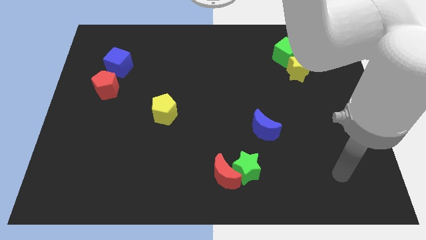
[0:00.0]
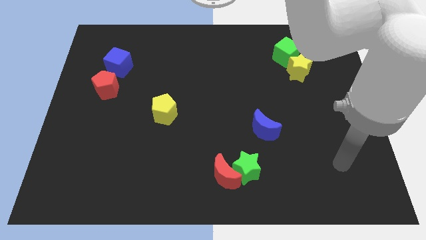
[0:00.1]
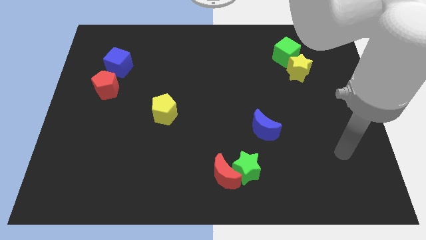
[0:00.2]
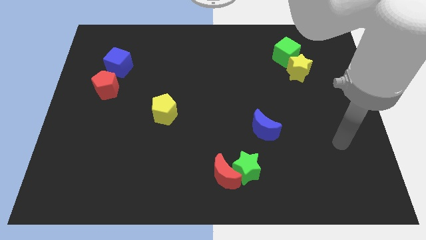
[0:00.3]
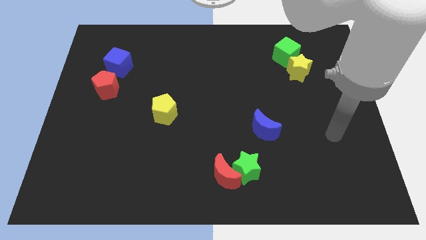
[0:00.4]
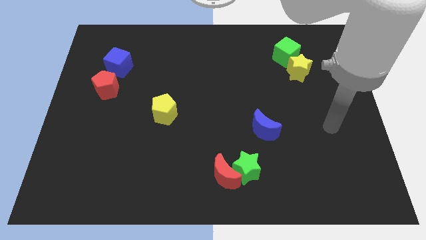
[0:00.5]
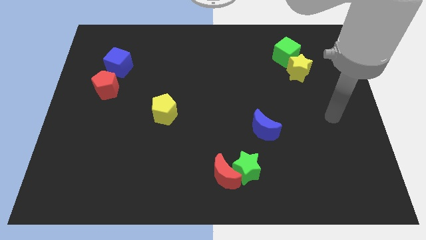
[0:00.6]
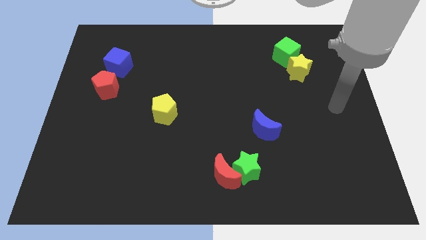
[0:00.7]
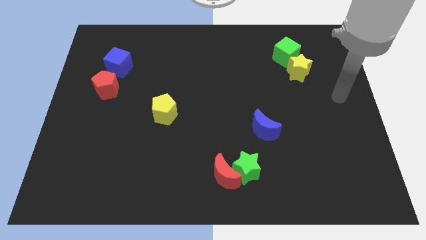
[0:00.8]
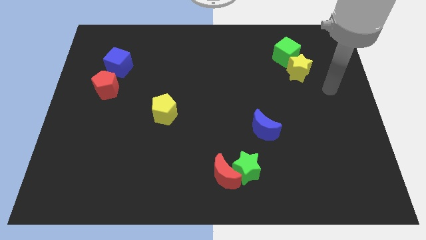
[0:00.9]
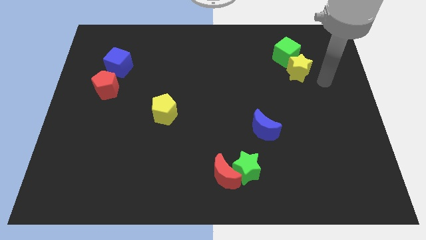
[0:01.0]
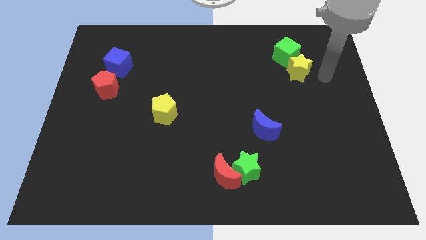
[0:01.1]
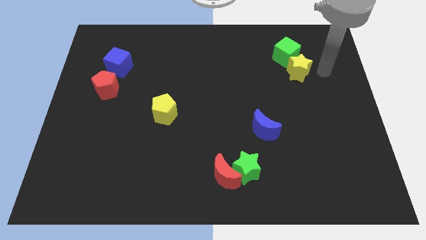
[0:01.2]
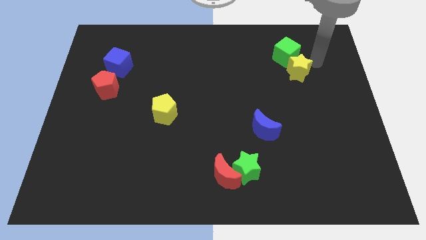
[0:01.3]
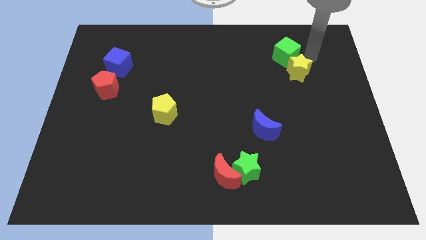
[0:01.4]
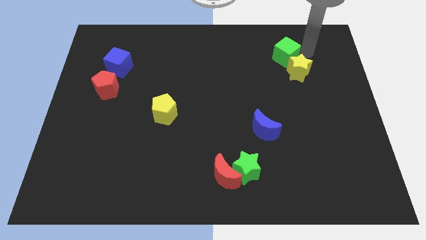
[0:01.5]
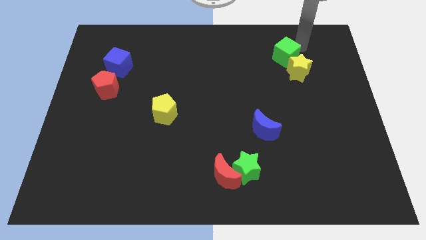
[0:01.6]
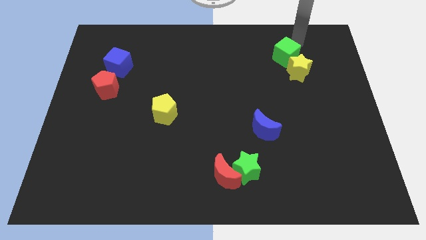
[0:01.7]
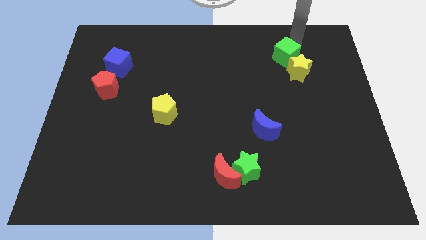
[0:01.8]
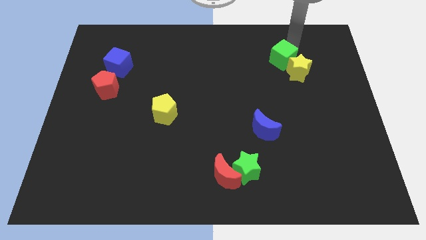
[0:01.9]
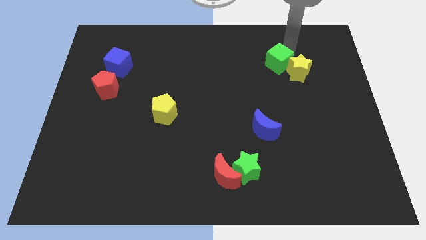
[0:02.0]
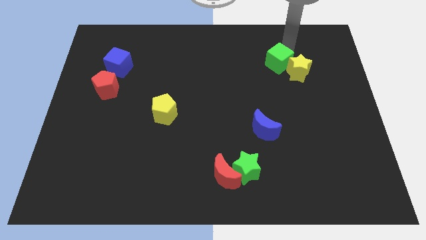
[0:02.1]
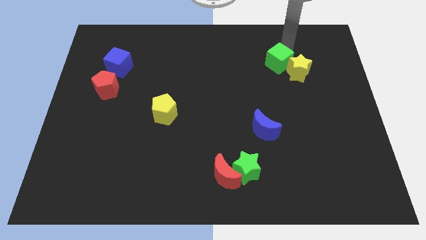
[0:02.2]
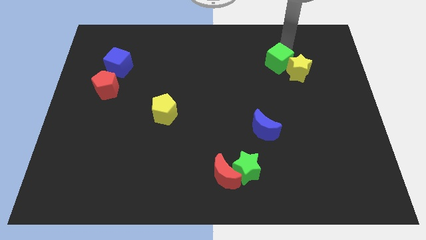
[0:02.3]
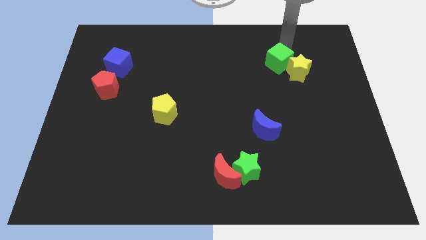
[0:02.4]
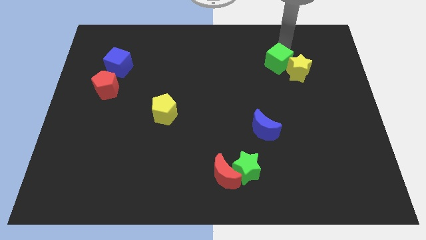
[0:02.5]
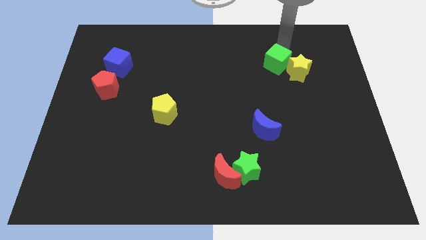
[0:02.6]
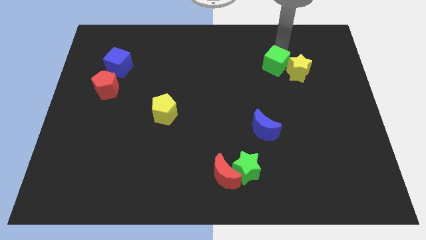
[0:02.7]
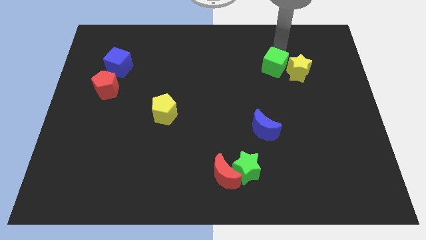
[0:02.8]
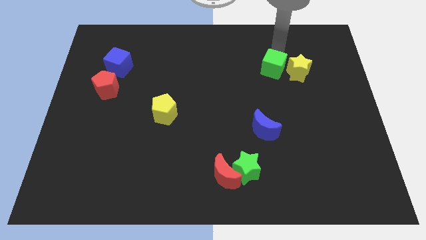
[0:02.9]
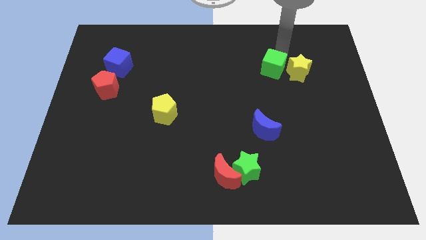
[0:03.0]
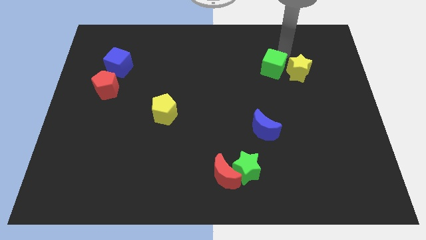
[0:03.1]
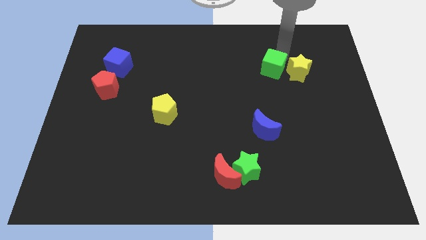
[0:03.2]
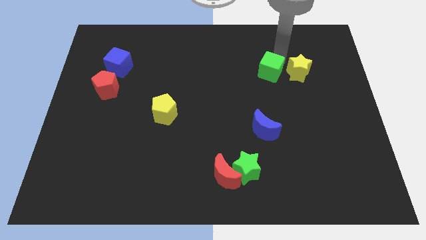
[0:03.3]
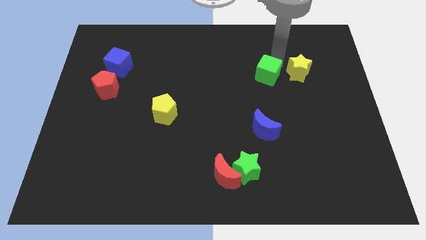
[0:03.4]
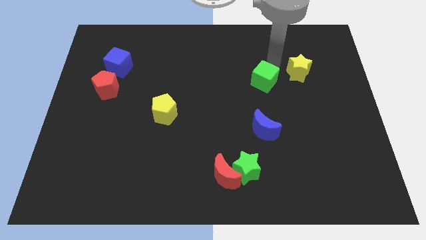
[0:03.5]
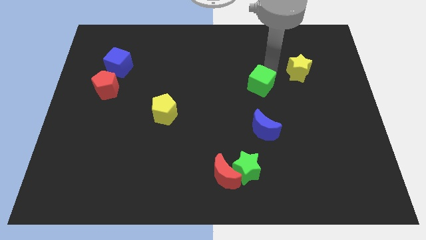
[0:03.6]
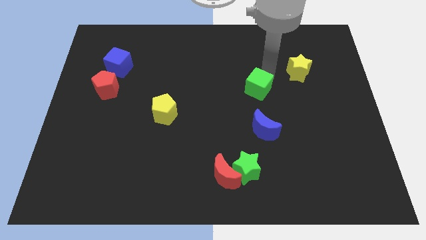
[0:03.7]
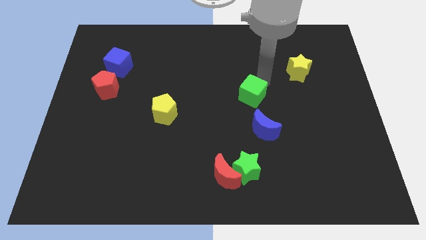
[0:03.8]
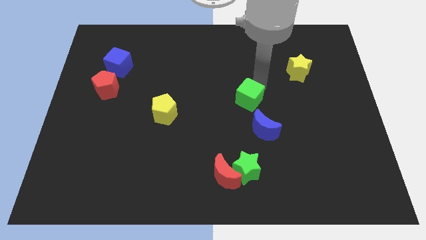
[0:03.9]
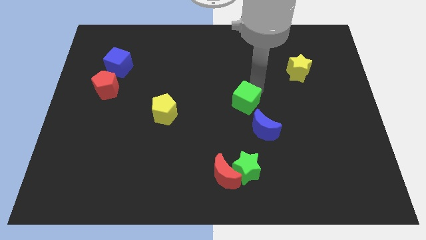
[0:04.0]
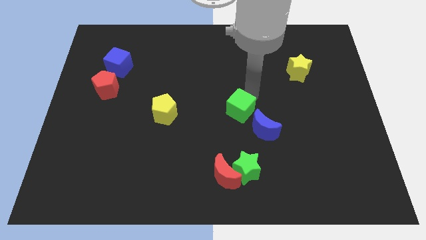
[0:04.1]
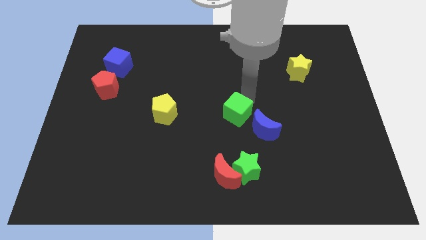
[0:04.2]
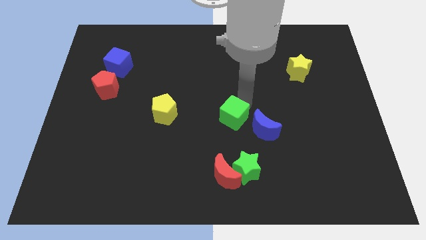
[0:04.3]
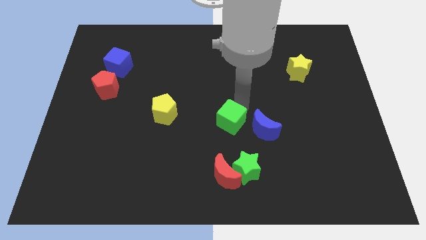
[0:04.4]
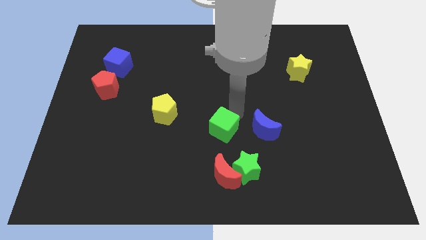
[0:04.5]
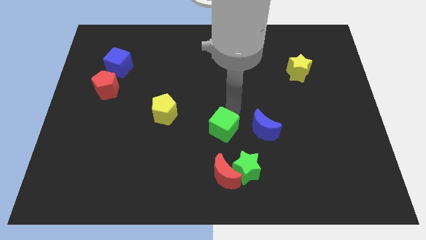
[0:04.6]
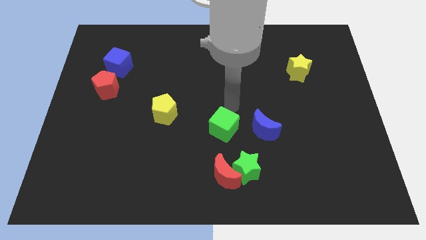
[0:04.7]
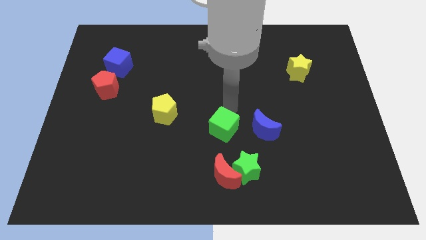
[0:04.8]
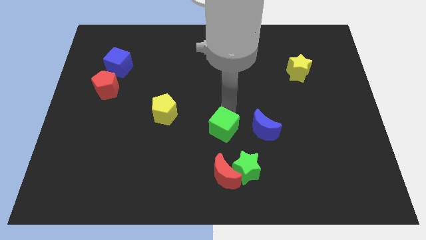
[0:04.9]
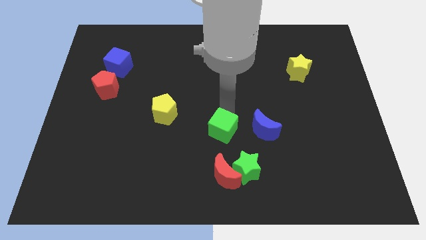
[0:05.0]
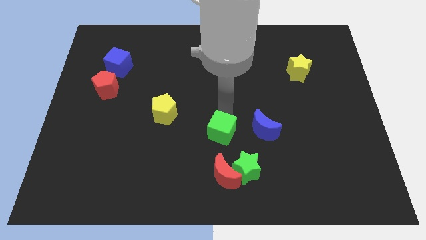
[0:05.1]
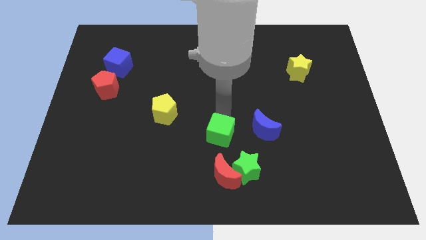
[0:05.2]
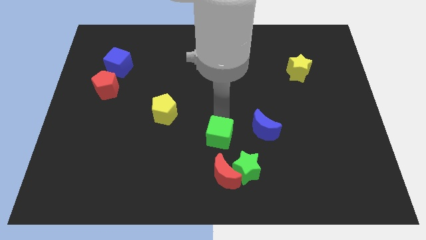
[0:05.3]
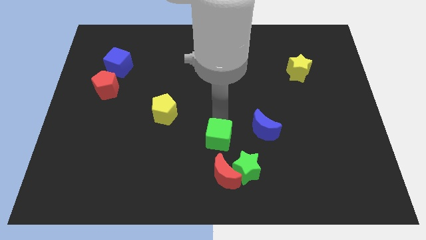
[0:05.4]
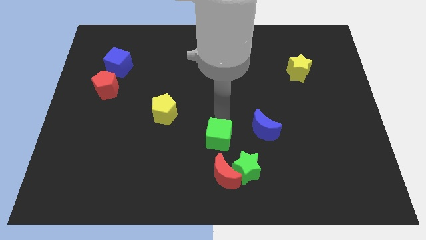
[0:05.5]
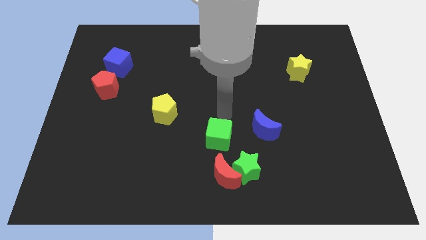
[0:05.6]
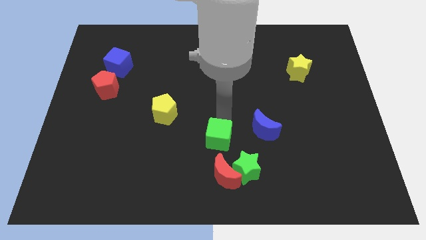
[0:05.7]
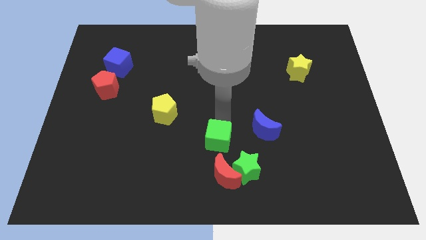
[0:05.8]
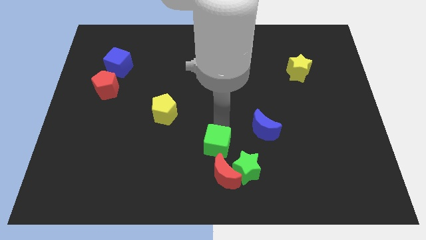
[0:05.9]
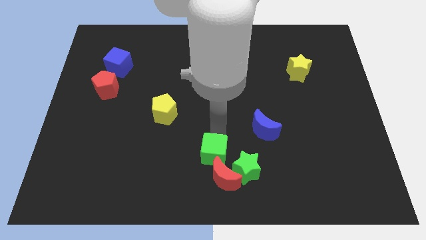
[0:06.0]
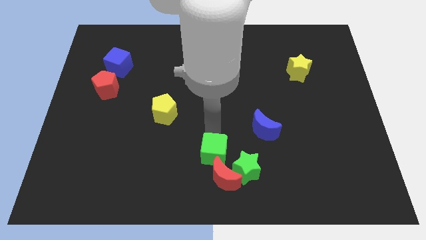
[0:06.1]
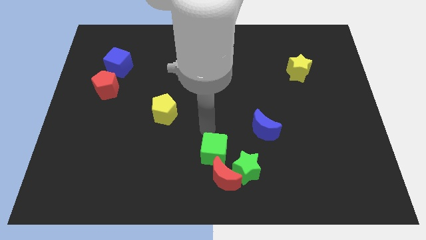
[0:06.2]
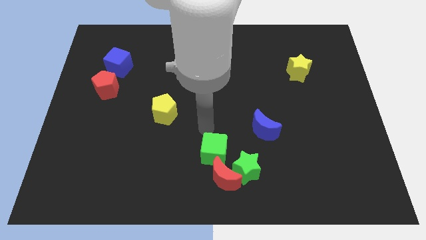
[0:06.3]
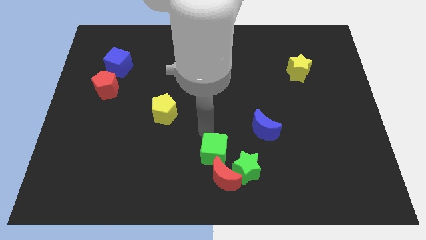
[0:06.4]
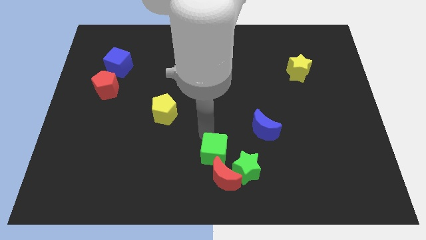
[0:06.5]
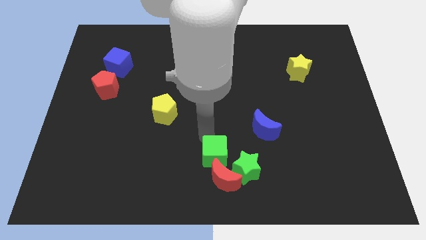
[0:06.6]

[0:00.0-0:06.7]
slide the green cube close to the red moon

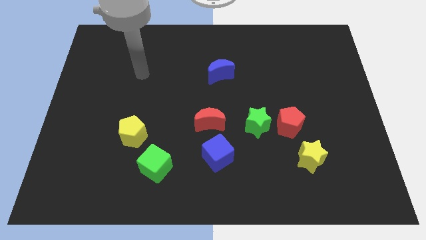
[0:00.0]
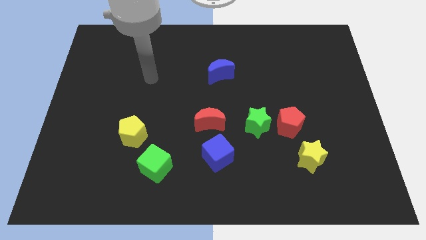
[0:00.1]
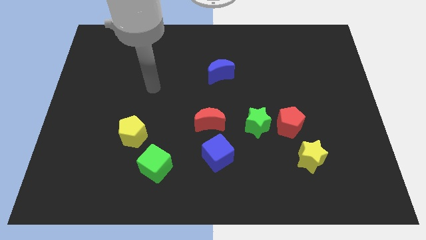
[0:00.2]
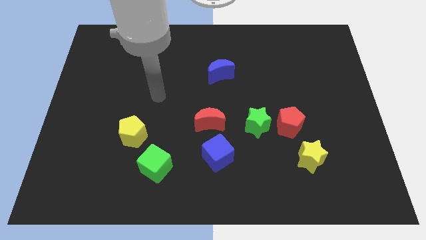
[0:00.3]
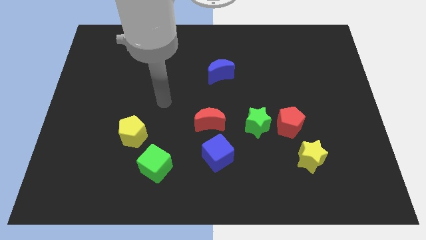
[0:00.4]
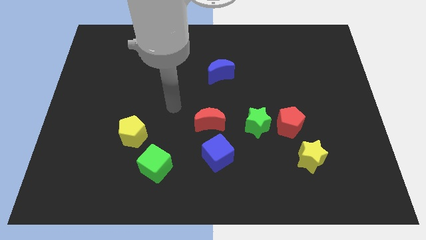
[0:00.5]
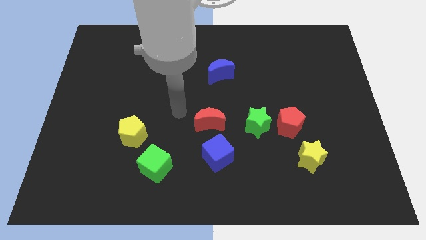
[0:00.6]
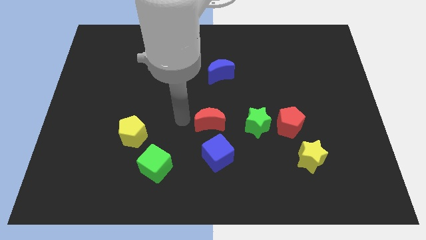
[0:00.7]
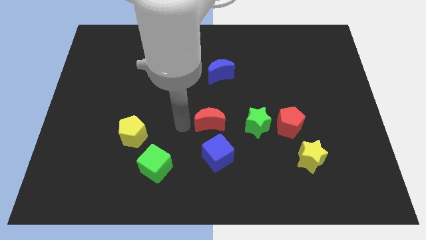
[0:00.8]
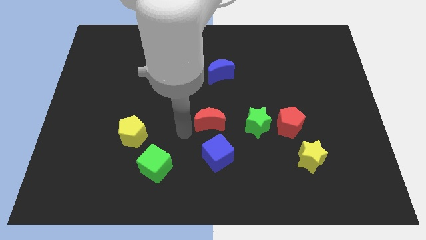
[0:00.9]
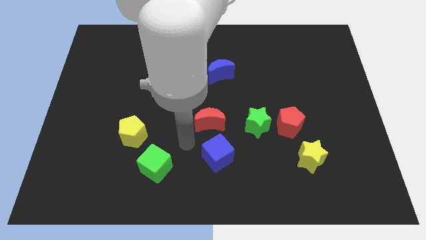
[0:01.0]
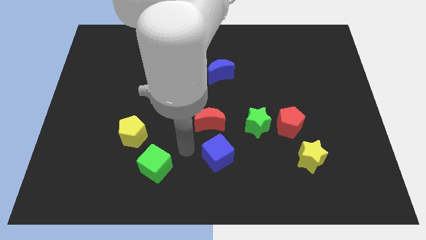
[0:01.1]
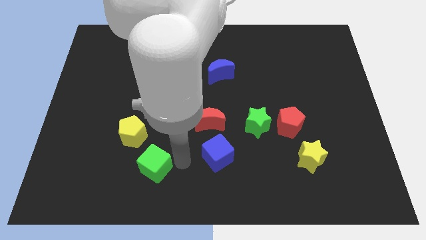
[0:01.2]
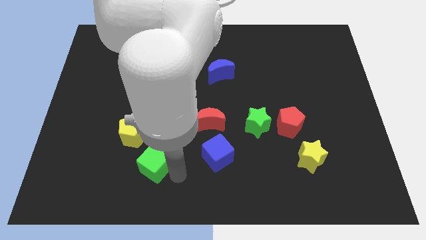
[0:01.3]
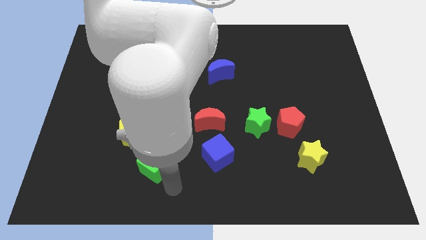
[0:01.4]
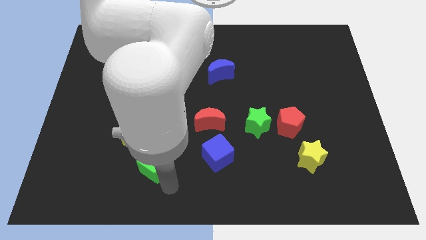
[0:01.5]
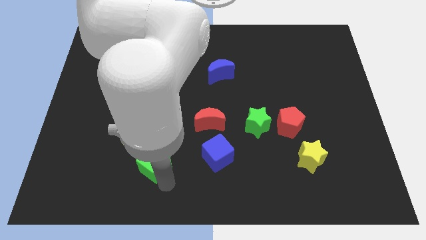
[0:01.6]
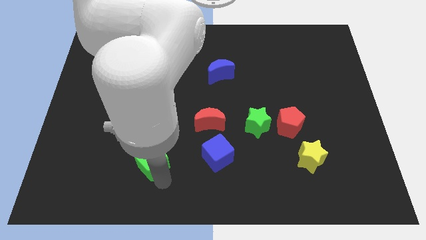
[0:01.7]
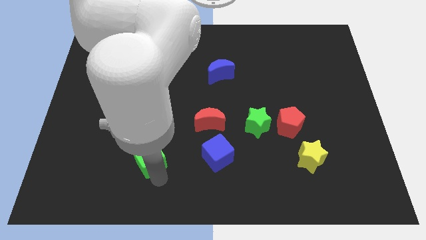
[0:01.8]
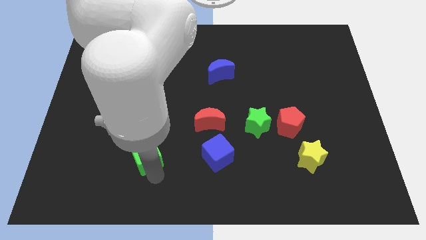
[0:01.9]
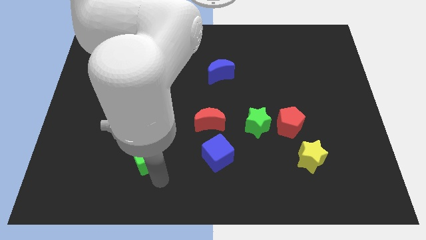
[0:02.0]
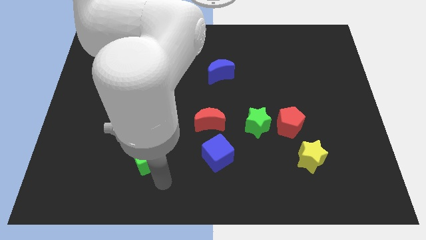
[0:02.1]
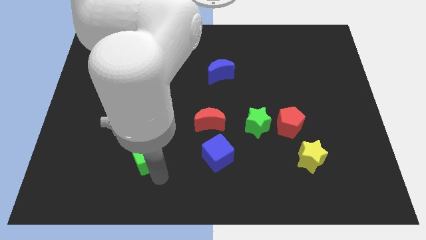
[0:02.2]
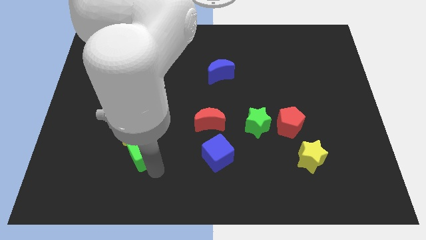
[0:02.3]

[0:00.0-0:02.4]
push the green cube towards the yellow pentagon
